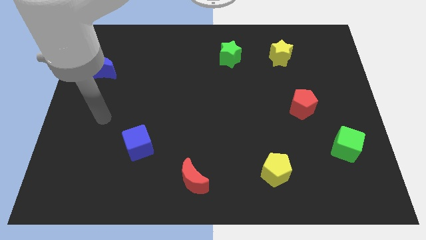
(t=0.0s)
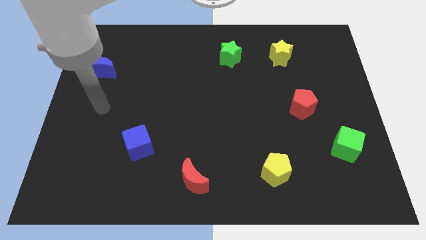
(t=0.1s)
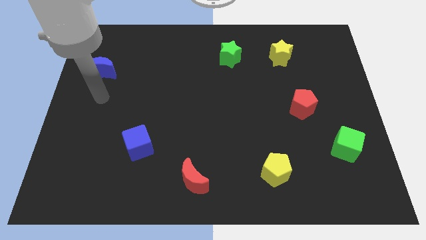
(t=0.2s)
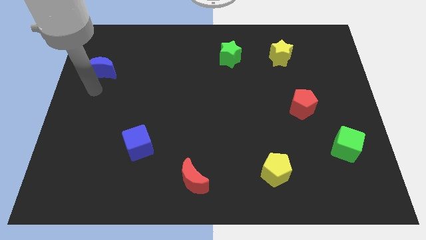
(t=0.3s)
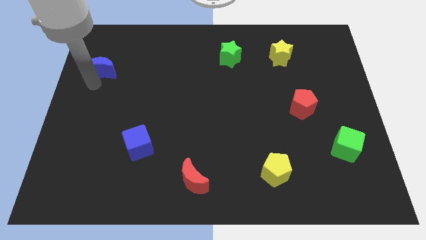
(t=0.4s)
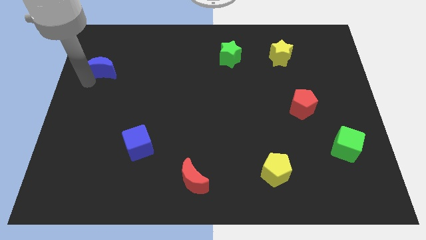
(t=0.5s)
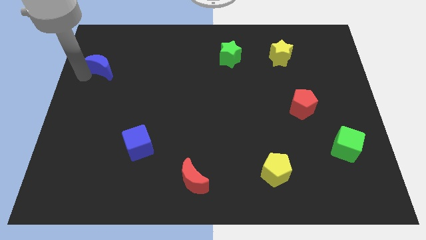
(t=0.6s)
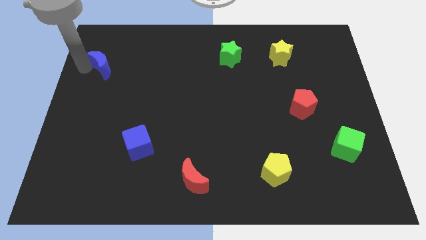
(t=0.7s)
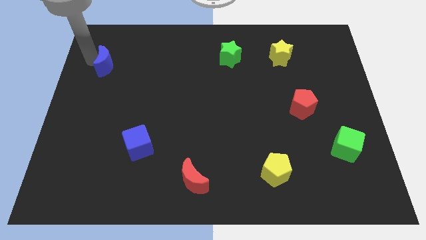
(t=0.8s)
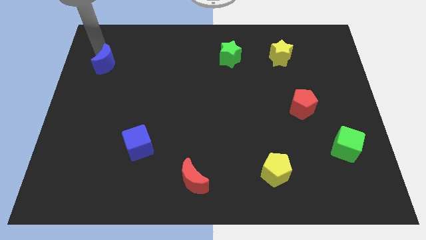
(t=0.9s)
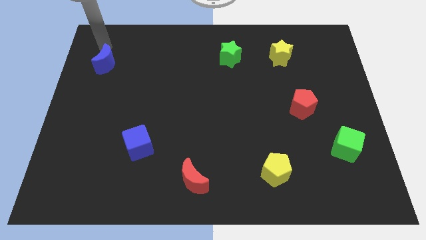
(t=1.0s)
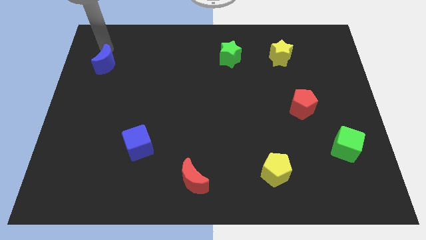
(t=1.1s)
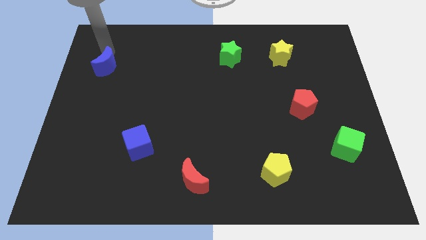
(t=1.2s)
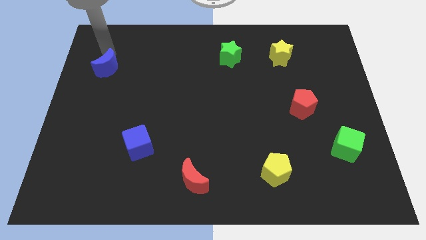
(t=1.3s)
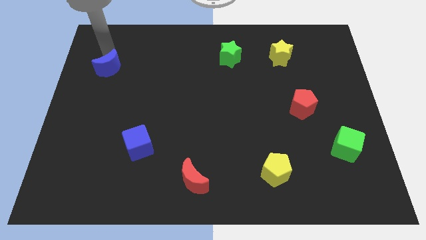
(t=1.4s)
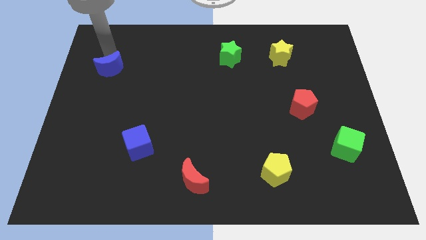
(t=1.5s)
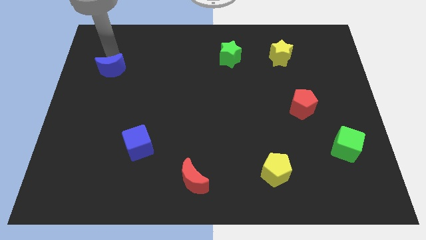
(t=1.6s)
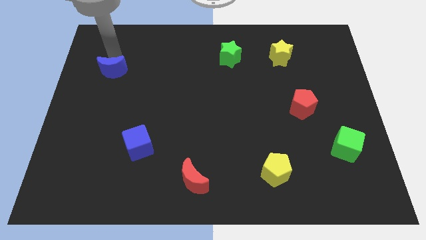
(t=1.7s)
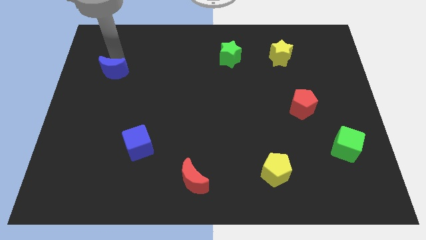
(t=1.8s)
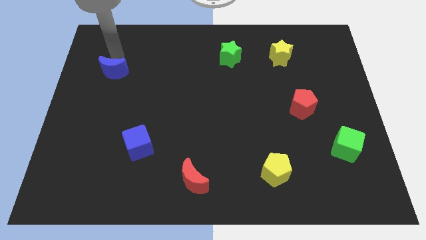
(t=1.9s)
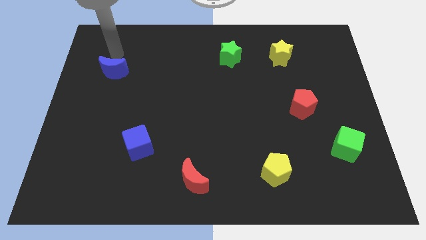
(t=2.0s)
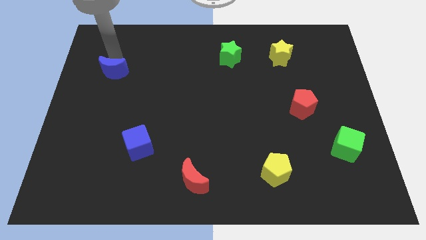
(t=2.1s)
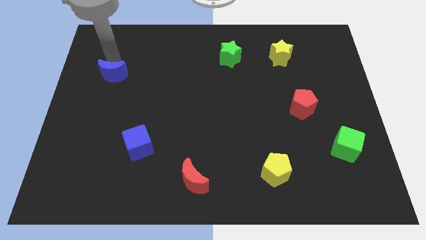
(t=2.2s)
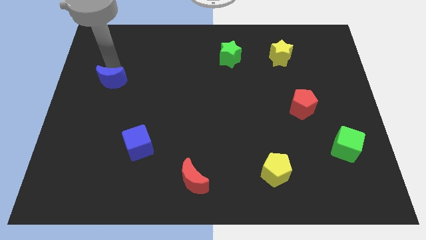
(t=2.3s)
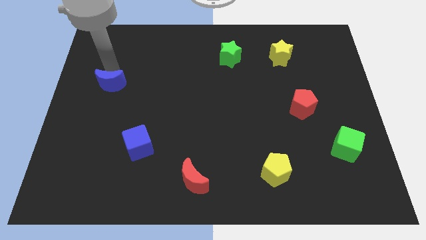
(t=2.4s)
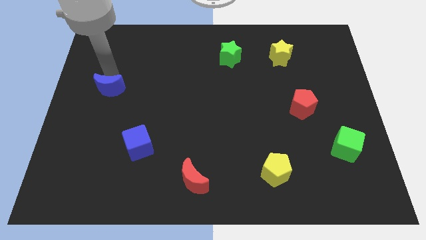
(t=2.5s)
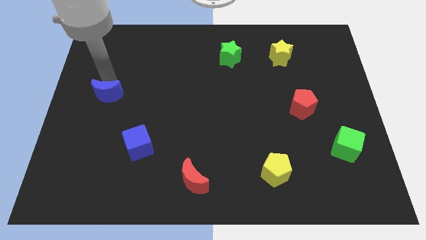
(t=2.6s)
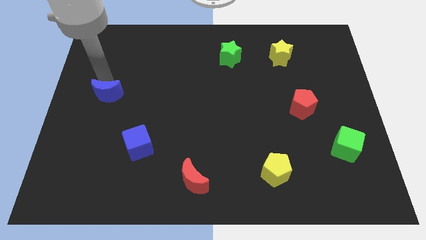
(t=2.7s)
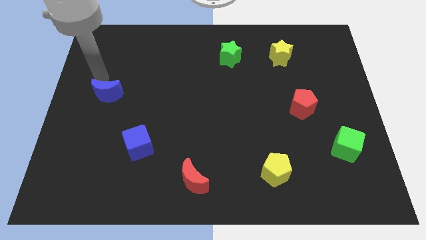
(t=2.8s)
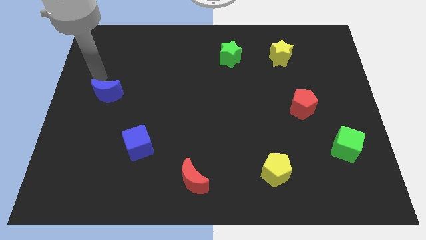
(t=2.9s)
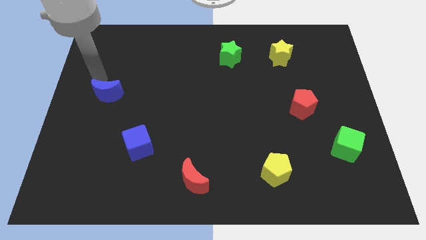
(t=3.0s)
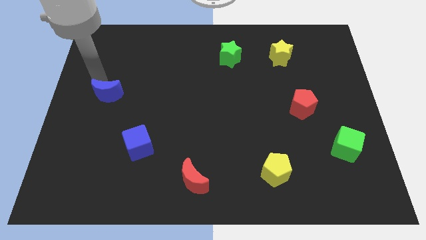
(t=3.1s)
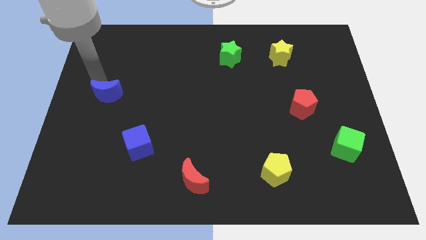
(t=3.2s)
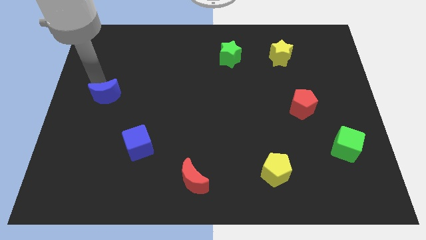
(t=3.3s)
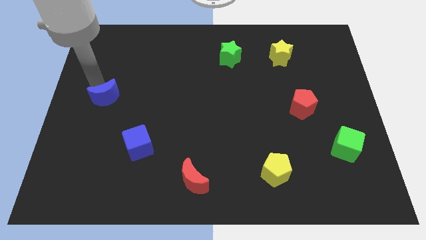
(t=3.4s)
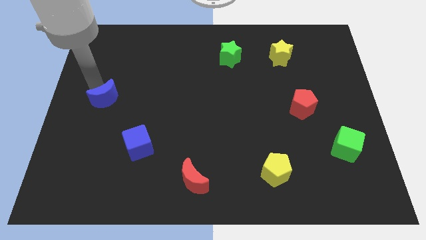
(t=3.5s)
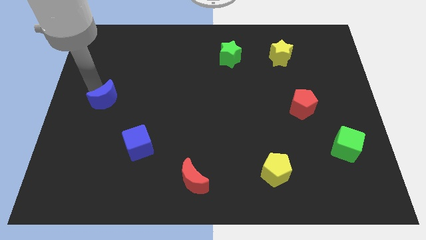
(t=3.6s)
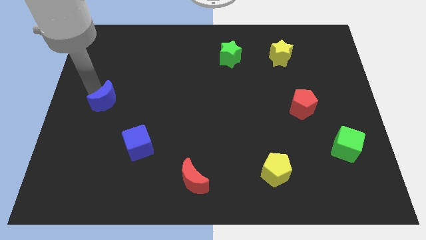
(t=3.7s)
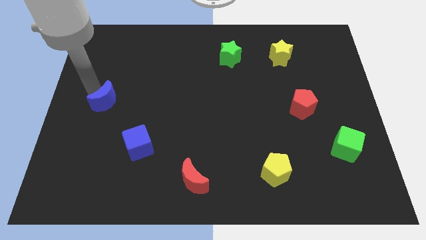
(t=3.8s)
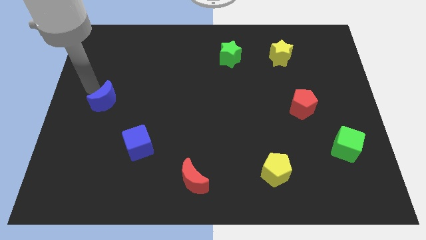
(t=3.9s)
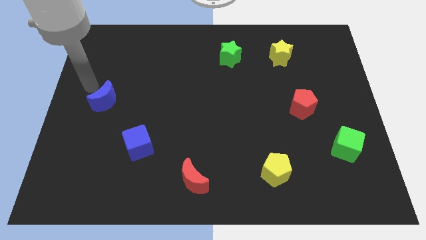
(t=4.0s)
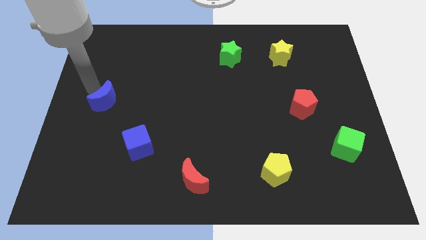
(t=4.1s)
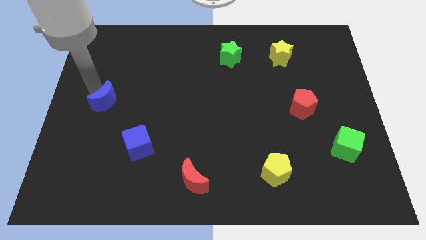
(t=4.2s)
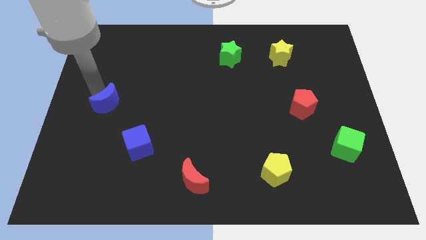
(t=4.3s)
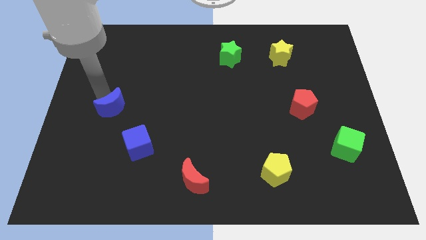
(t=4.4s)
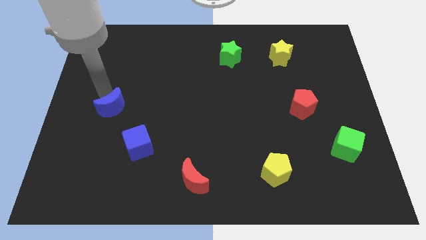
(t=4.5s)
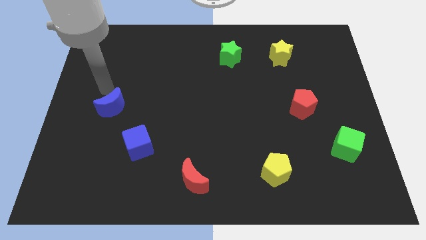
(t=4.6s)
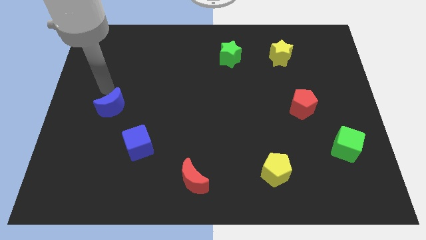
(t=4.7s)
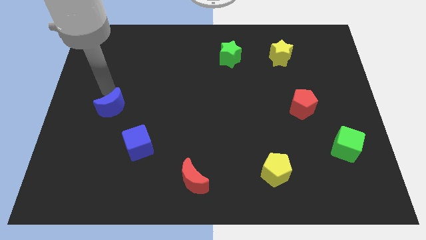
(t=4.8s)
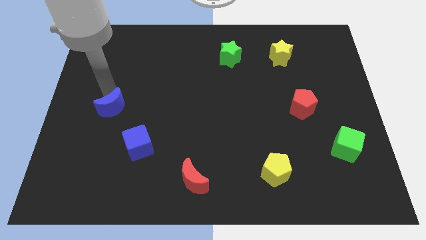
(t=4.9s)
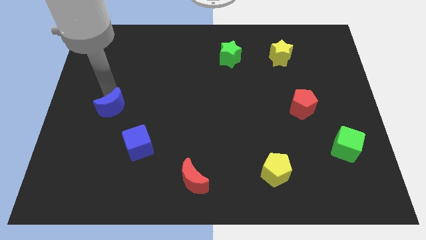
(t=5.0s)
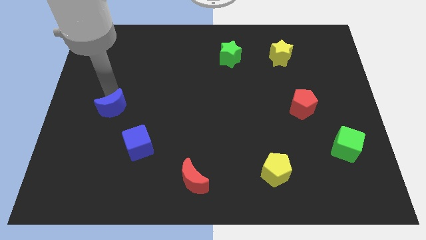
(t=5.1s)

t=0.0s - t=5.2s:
put the blue moon to the top left side of the blue cube

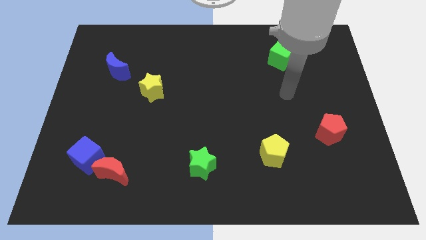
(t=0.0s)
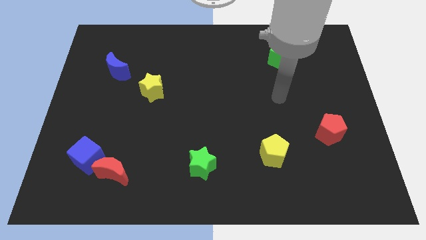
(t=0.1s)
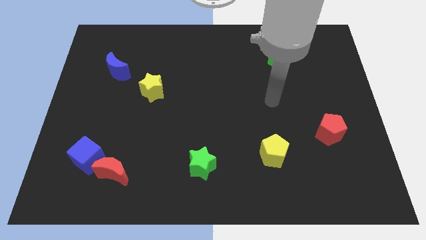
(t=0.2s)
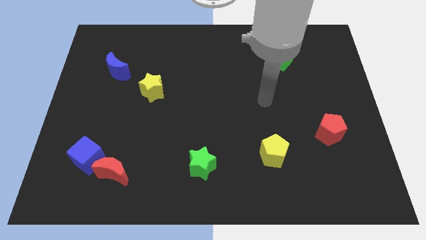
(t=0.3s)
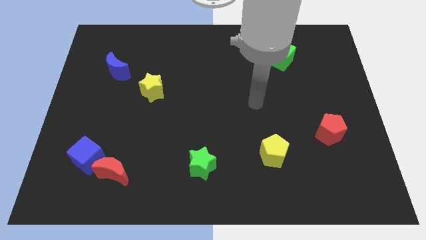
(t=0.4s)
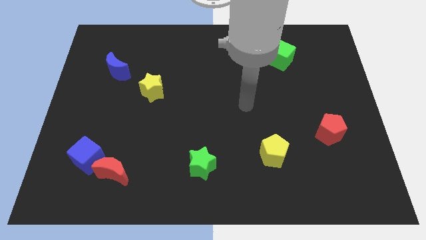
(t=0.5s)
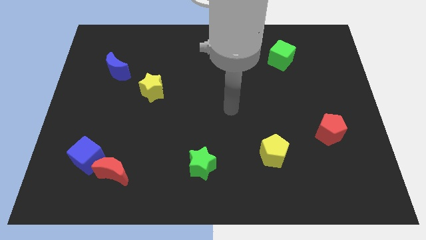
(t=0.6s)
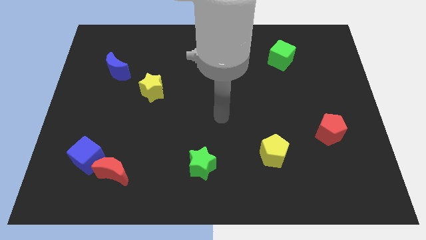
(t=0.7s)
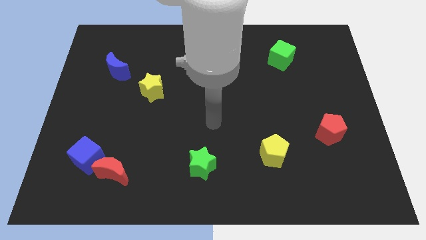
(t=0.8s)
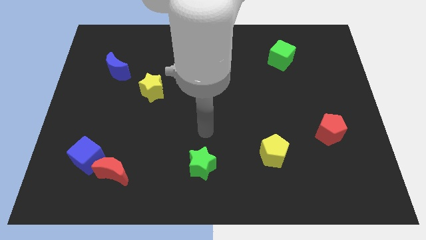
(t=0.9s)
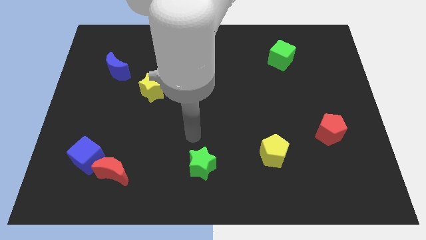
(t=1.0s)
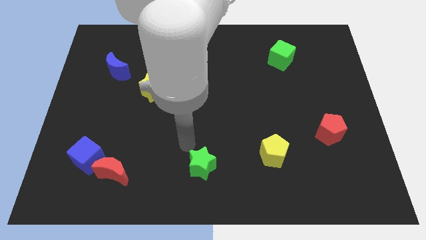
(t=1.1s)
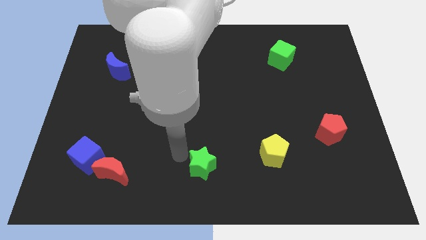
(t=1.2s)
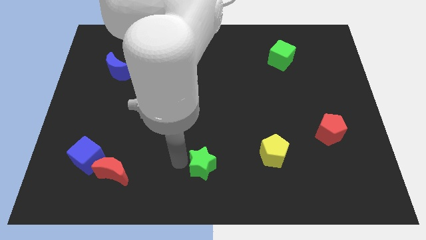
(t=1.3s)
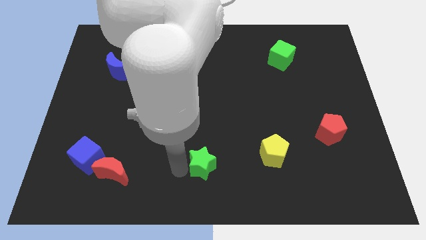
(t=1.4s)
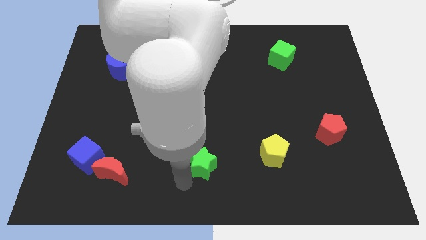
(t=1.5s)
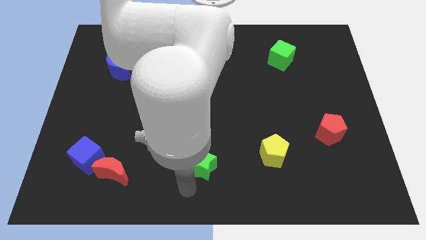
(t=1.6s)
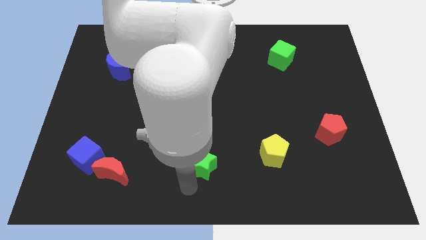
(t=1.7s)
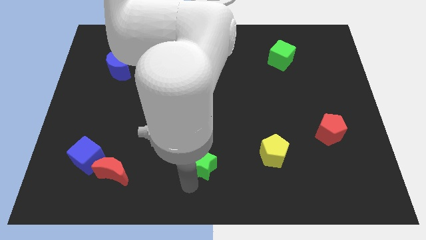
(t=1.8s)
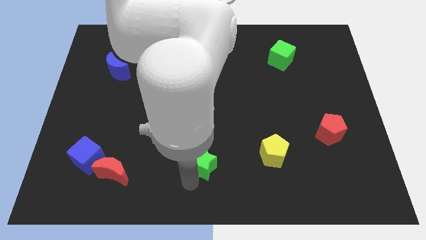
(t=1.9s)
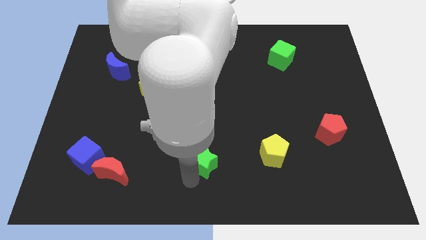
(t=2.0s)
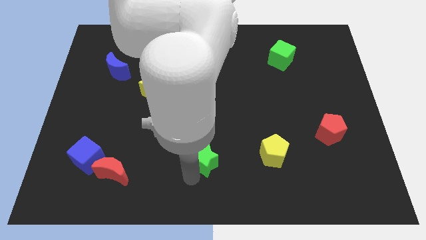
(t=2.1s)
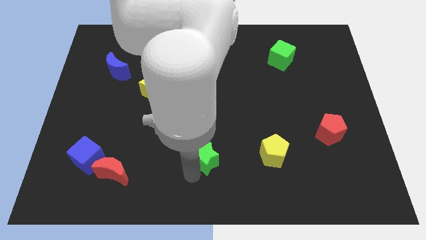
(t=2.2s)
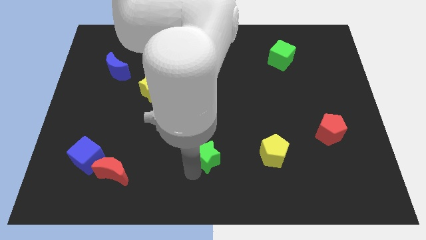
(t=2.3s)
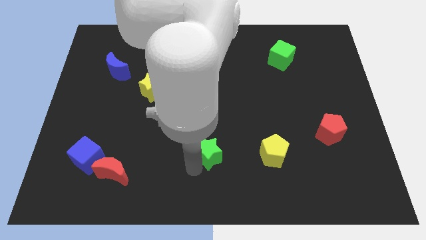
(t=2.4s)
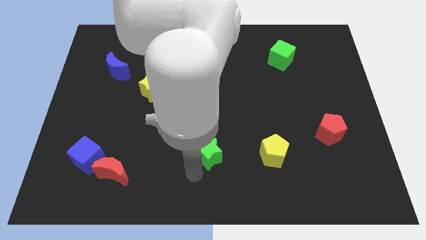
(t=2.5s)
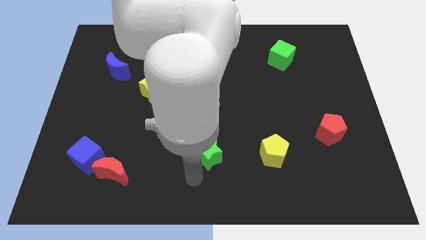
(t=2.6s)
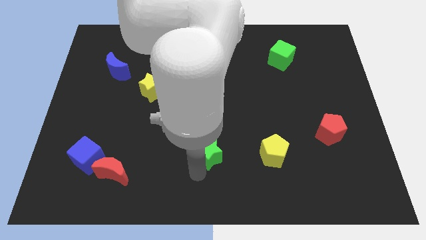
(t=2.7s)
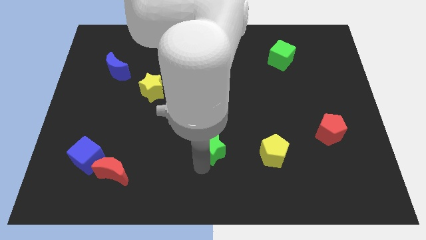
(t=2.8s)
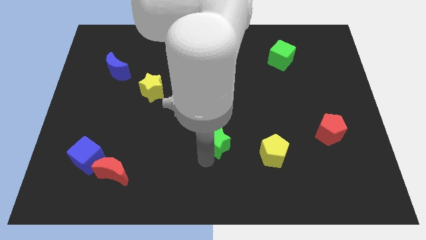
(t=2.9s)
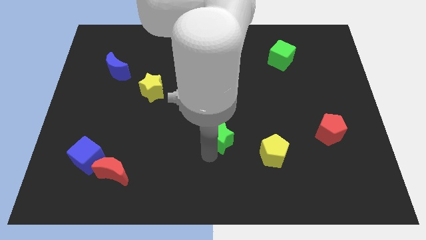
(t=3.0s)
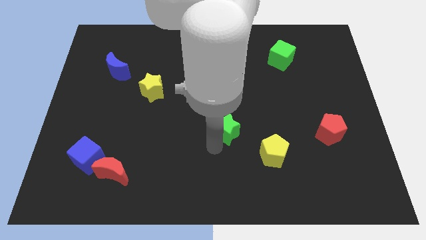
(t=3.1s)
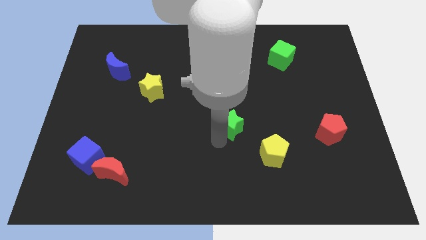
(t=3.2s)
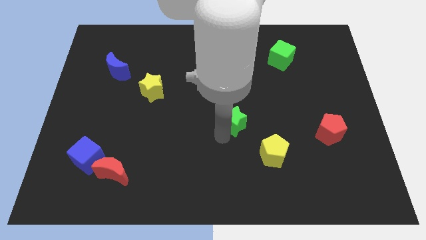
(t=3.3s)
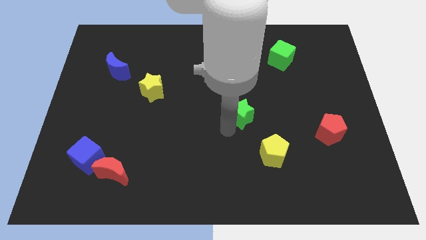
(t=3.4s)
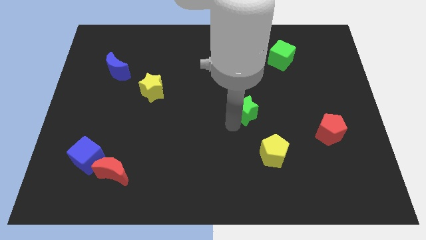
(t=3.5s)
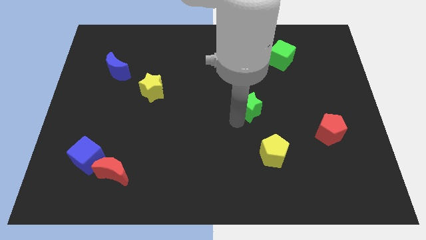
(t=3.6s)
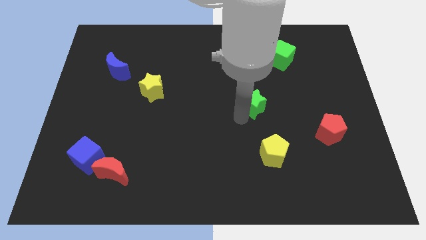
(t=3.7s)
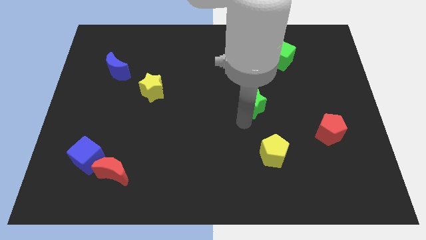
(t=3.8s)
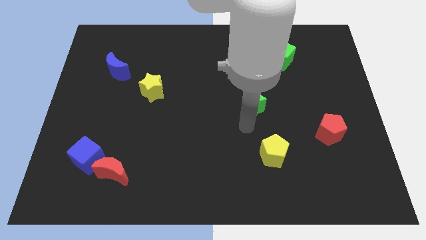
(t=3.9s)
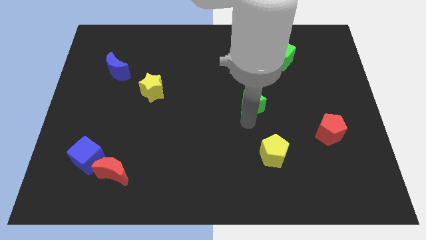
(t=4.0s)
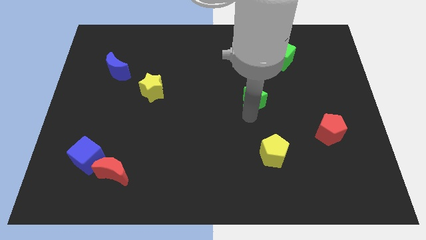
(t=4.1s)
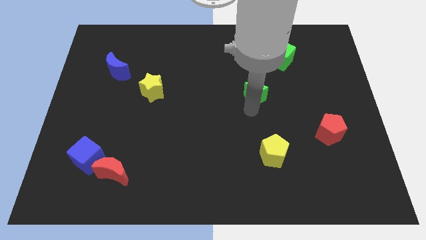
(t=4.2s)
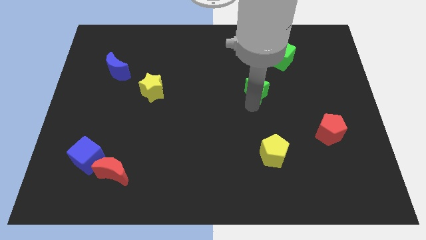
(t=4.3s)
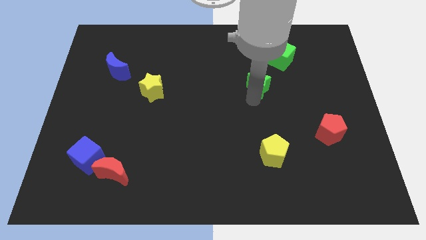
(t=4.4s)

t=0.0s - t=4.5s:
move the green star to the bottom left of the green cube
